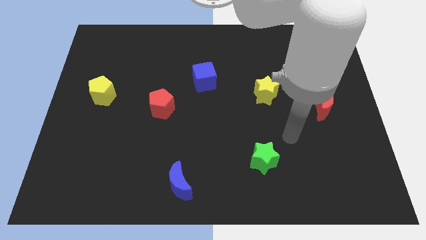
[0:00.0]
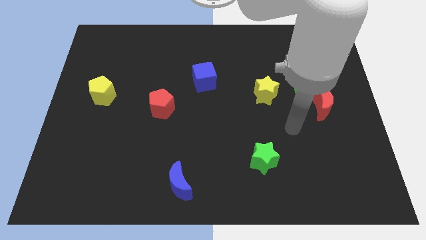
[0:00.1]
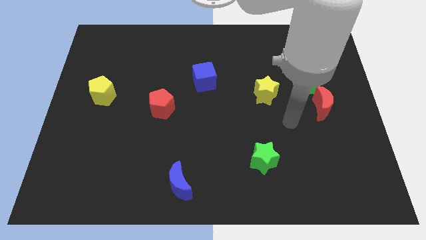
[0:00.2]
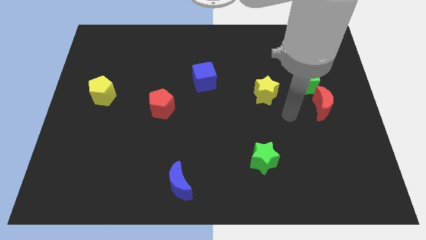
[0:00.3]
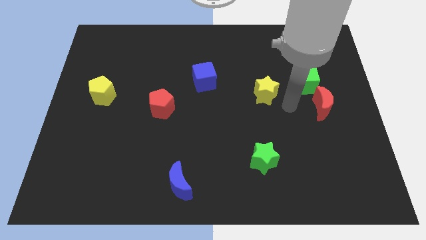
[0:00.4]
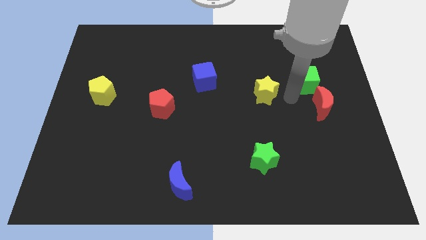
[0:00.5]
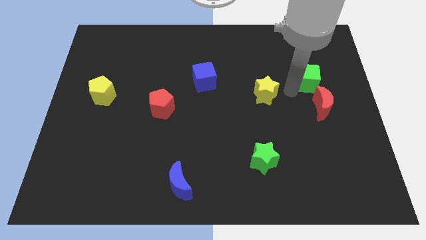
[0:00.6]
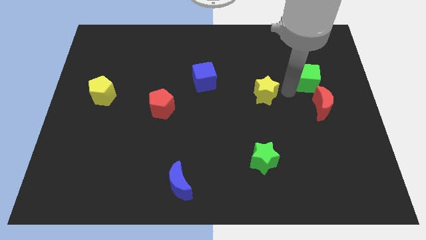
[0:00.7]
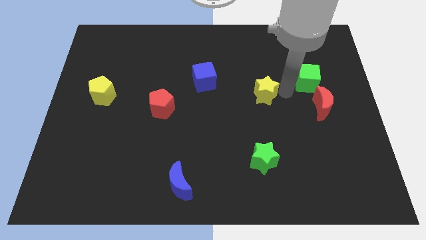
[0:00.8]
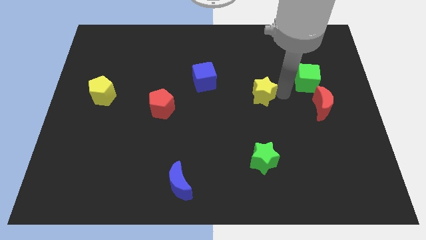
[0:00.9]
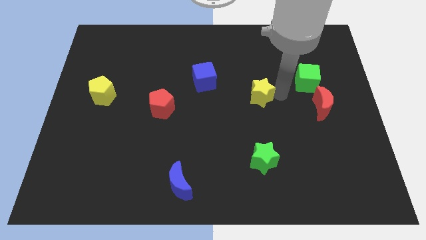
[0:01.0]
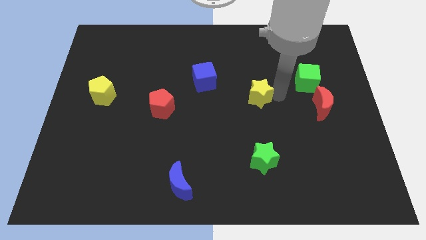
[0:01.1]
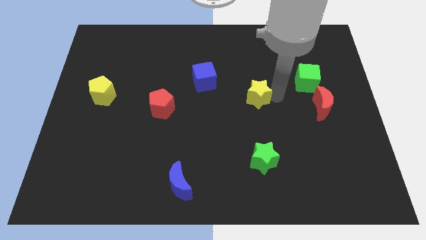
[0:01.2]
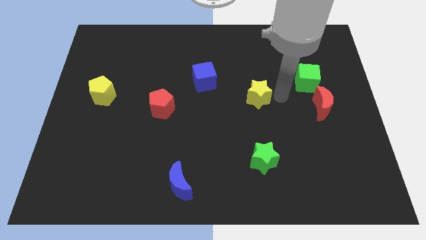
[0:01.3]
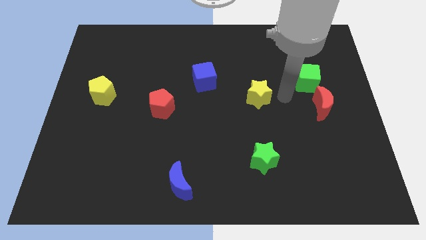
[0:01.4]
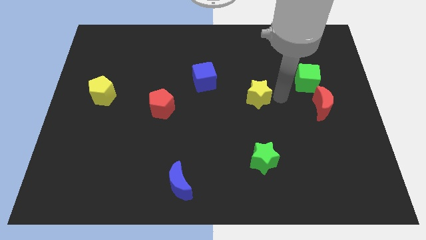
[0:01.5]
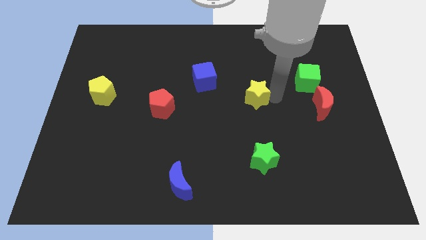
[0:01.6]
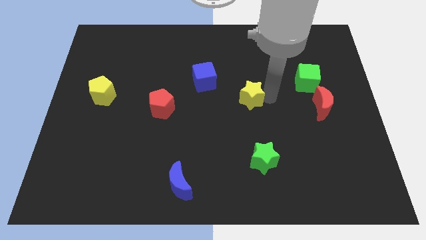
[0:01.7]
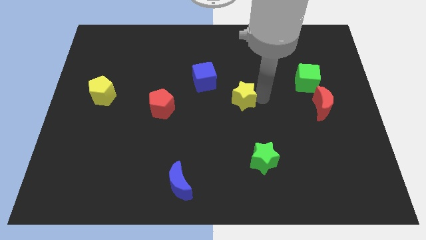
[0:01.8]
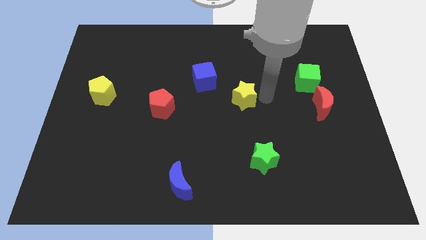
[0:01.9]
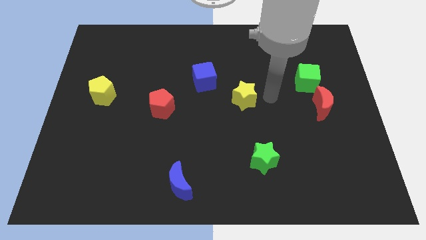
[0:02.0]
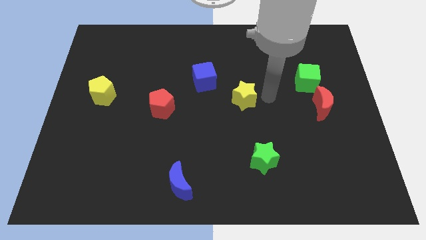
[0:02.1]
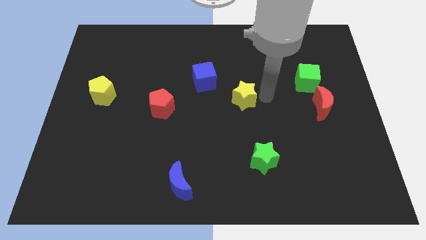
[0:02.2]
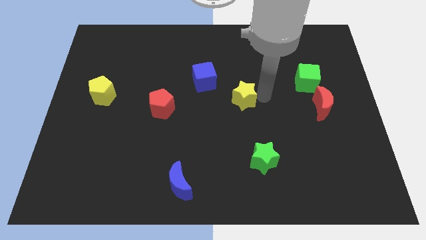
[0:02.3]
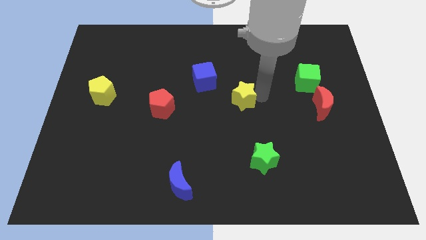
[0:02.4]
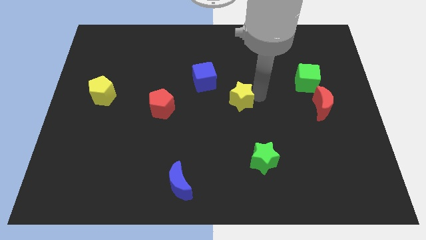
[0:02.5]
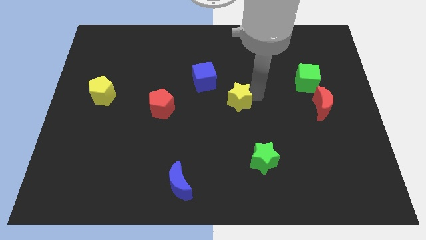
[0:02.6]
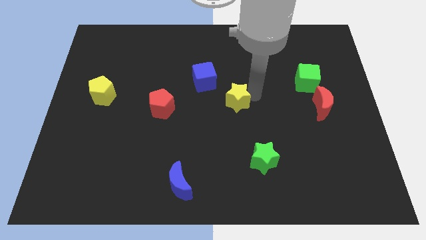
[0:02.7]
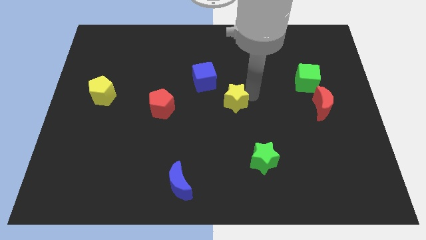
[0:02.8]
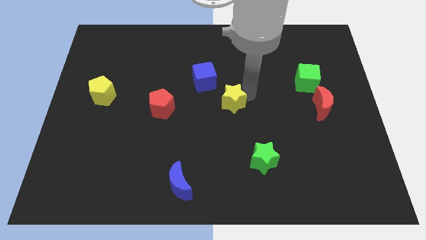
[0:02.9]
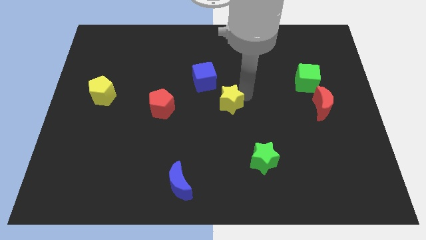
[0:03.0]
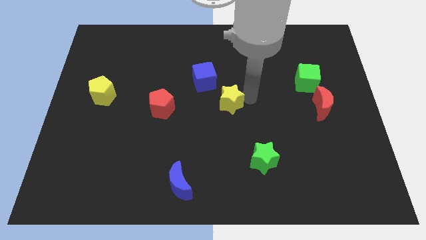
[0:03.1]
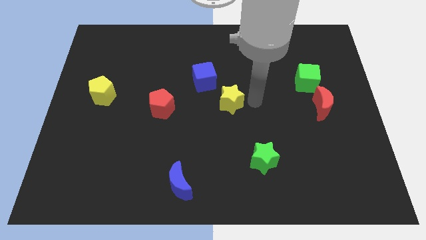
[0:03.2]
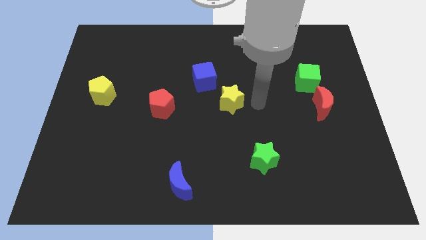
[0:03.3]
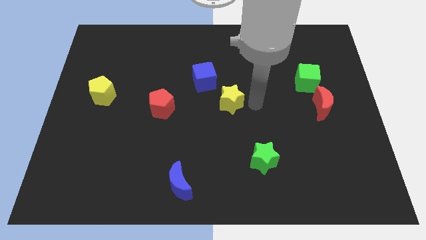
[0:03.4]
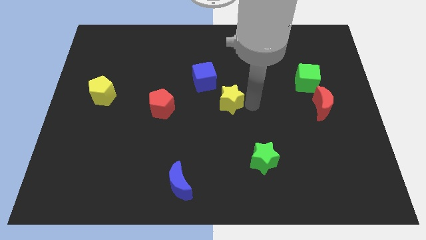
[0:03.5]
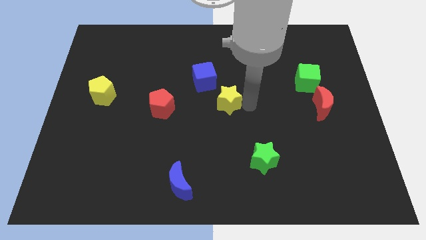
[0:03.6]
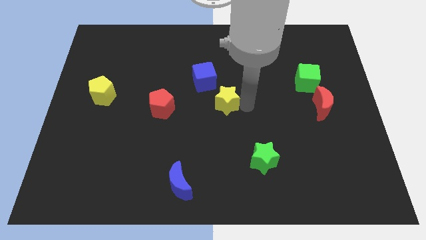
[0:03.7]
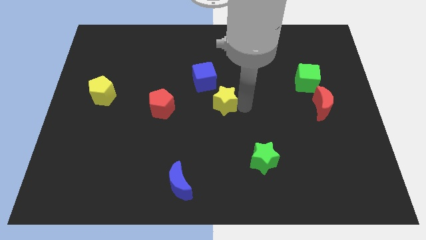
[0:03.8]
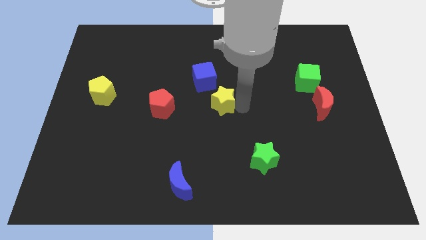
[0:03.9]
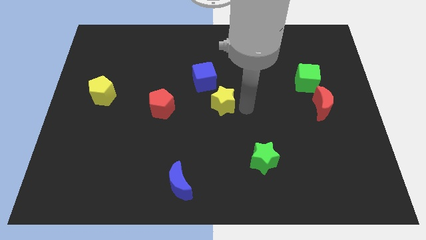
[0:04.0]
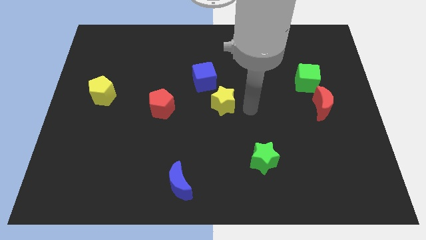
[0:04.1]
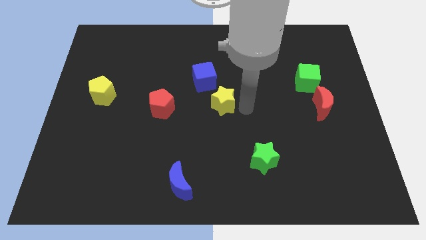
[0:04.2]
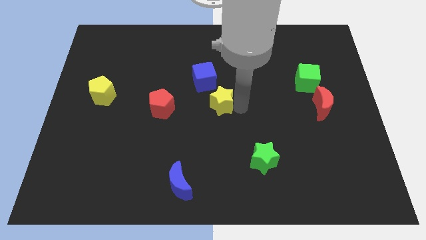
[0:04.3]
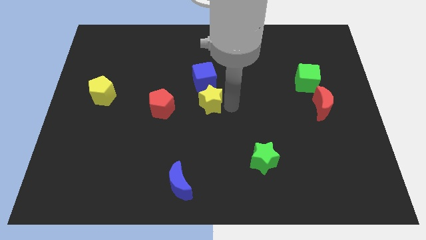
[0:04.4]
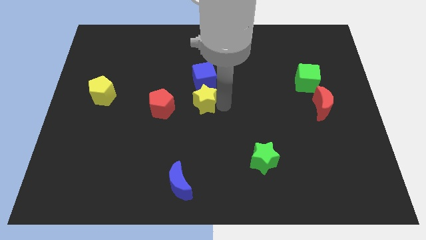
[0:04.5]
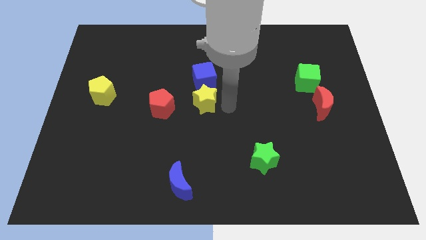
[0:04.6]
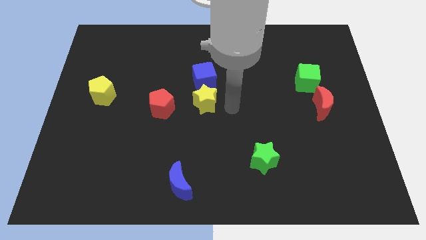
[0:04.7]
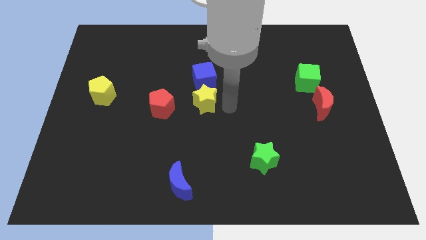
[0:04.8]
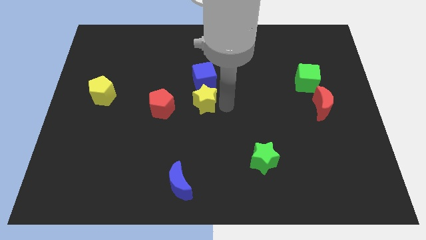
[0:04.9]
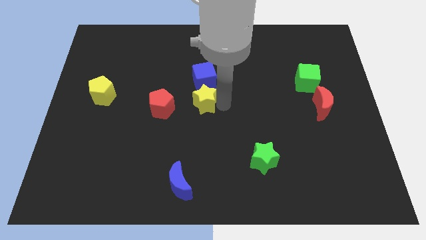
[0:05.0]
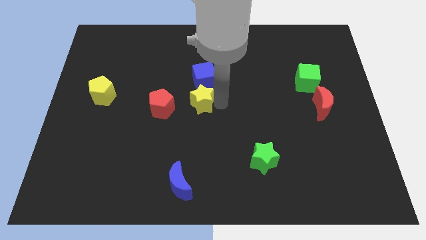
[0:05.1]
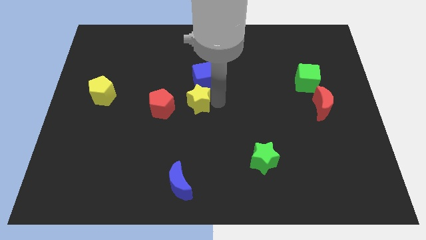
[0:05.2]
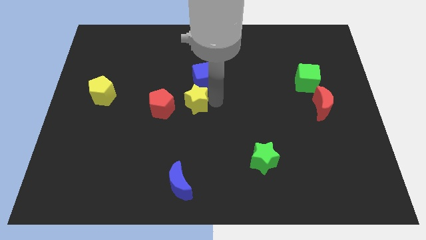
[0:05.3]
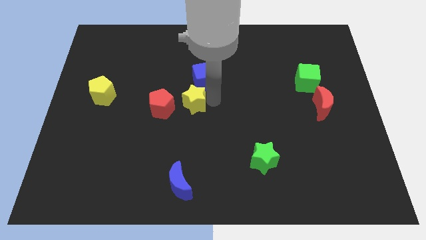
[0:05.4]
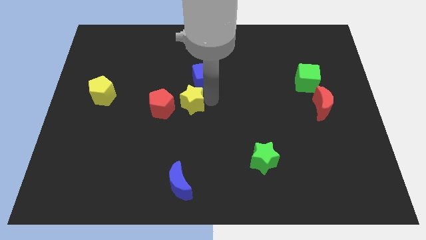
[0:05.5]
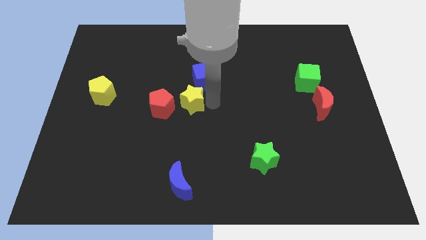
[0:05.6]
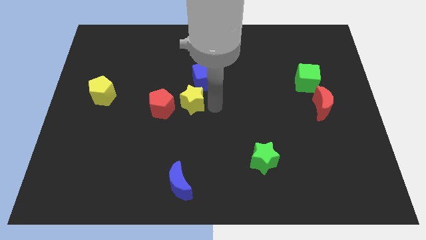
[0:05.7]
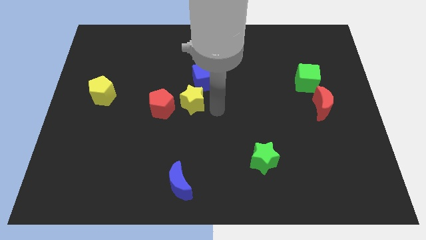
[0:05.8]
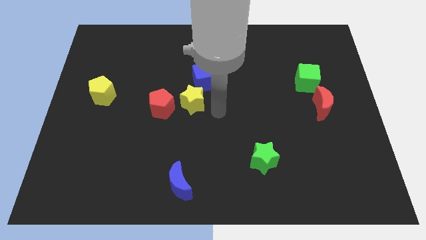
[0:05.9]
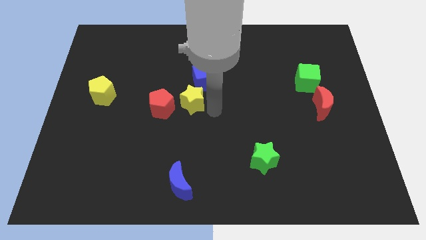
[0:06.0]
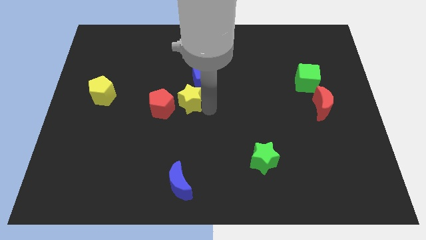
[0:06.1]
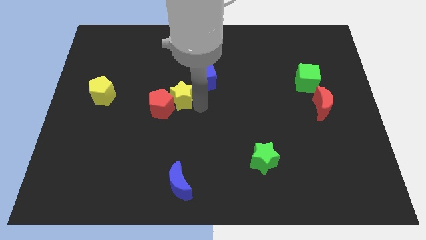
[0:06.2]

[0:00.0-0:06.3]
move the yellow star to the left

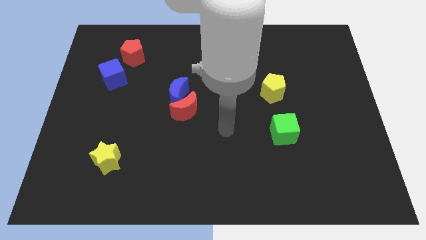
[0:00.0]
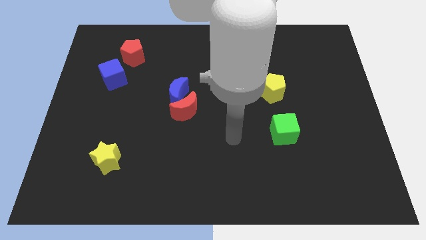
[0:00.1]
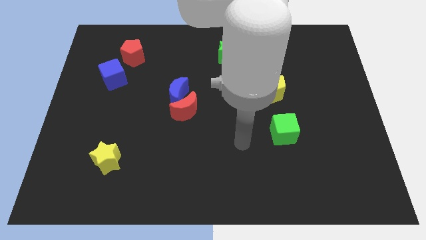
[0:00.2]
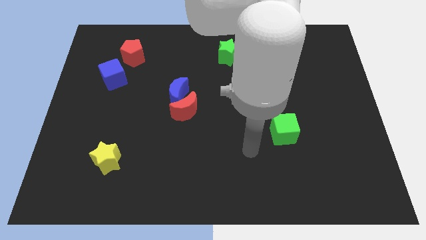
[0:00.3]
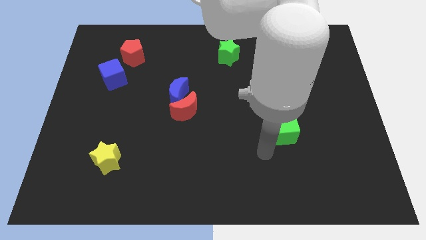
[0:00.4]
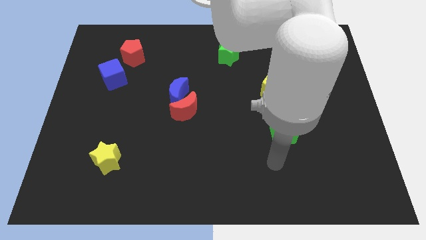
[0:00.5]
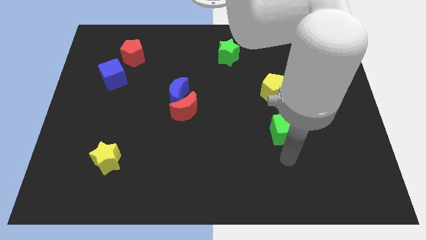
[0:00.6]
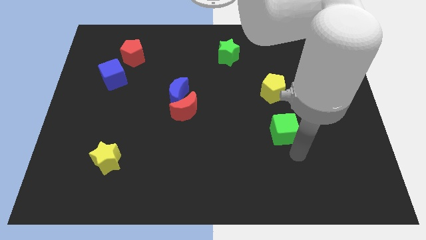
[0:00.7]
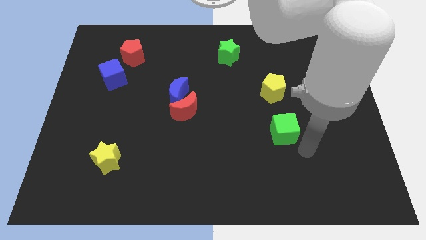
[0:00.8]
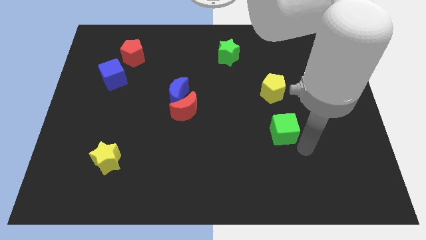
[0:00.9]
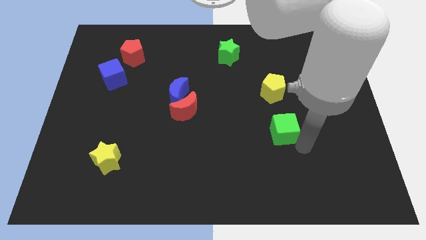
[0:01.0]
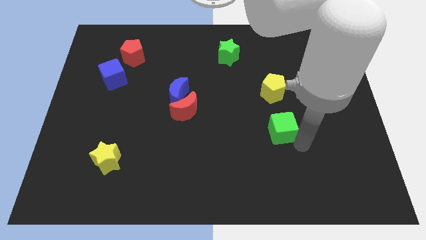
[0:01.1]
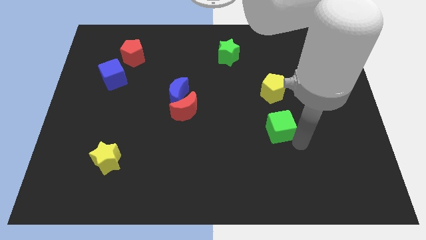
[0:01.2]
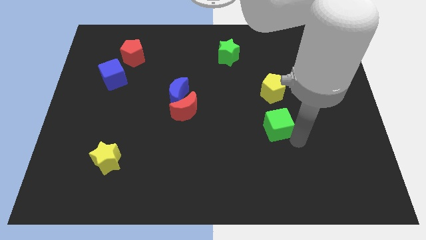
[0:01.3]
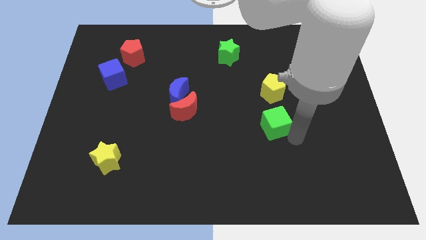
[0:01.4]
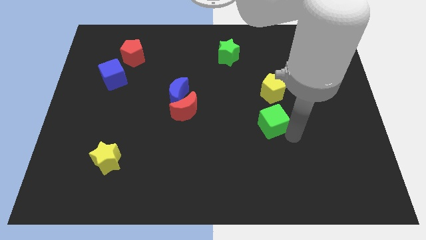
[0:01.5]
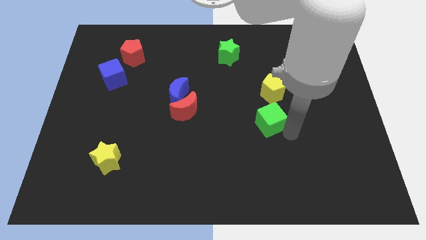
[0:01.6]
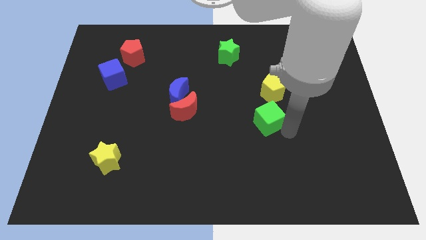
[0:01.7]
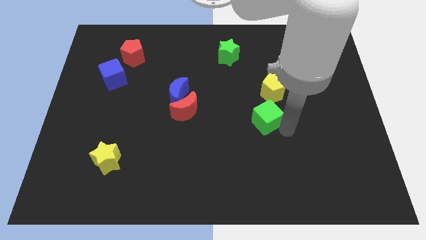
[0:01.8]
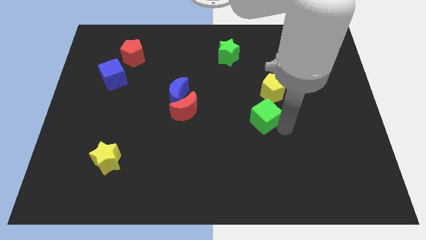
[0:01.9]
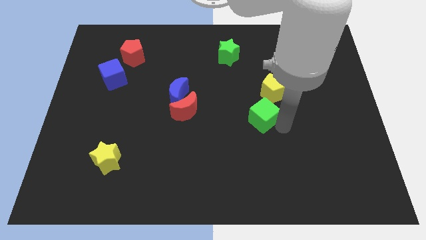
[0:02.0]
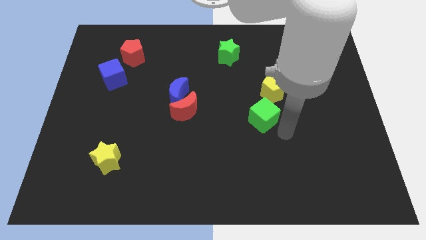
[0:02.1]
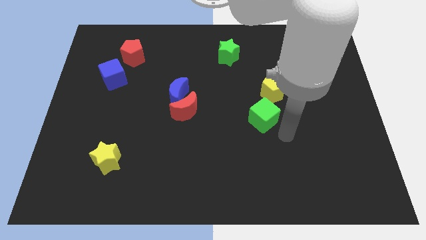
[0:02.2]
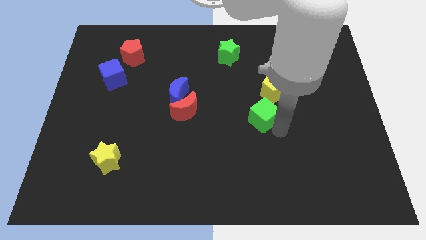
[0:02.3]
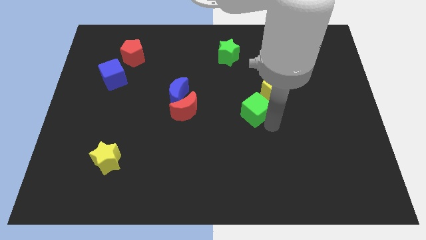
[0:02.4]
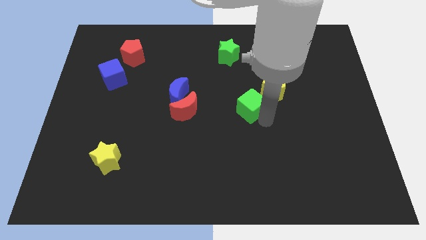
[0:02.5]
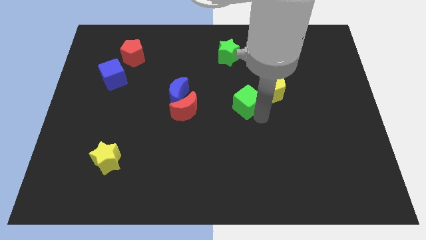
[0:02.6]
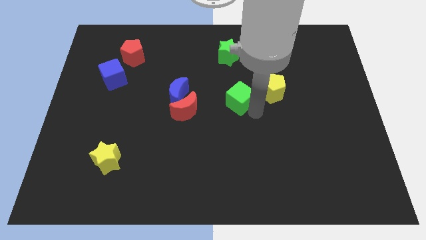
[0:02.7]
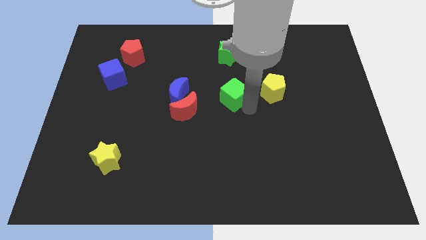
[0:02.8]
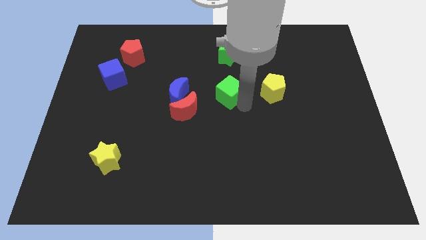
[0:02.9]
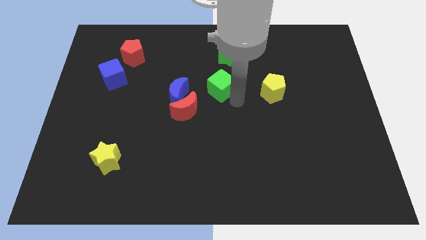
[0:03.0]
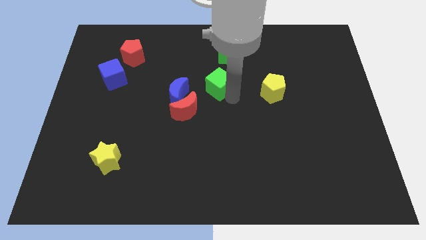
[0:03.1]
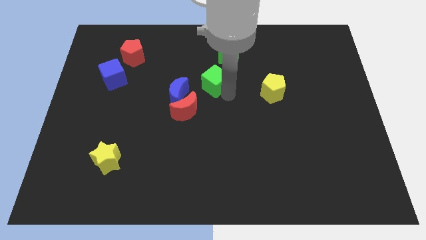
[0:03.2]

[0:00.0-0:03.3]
slide the green cube diagonally upwards and left
